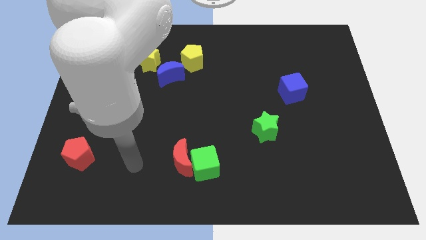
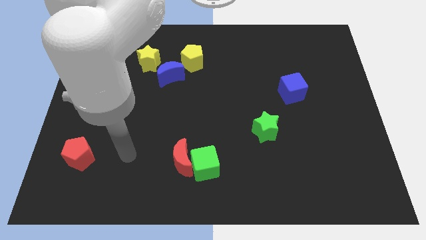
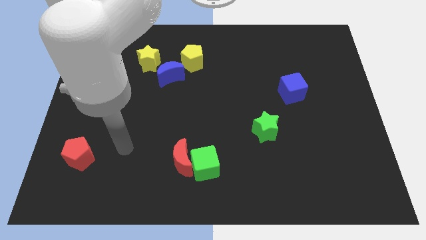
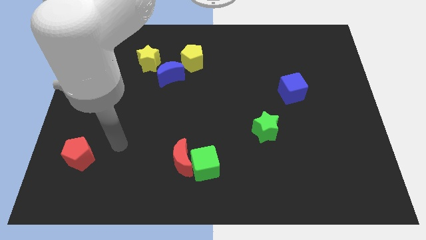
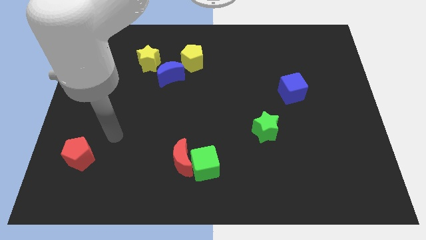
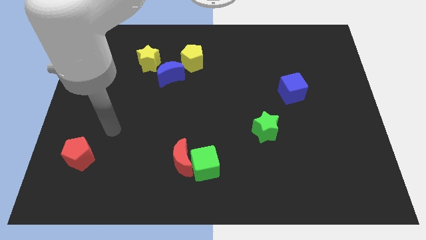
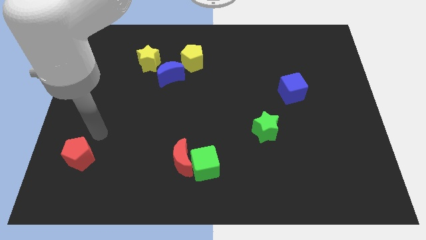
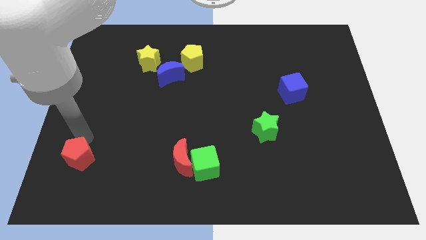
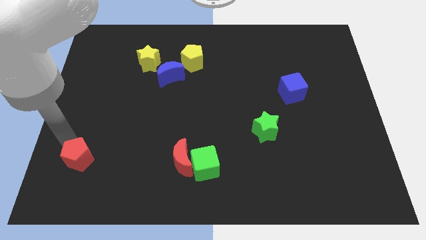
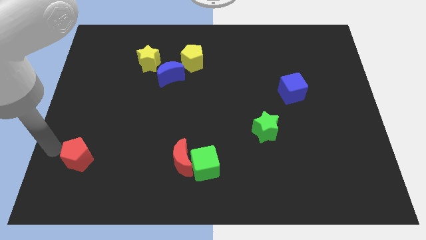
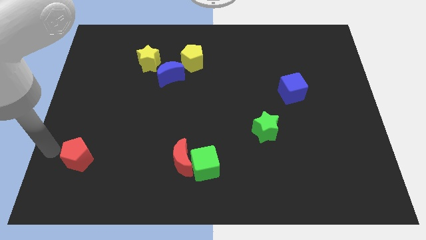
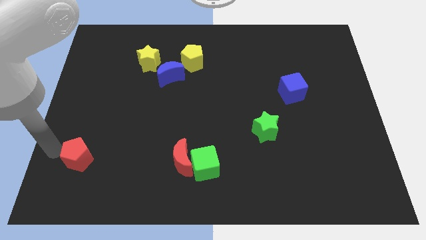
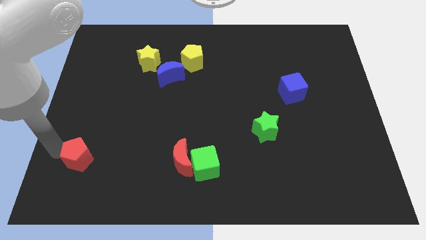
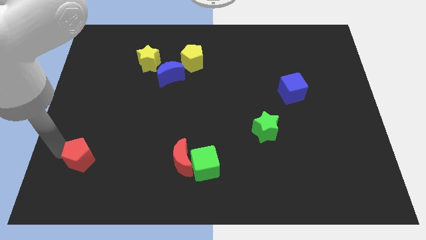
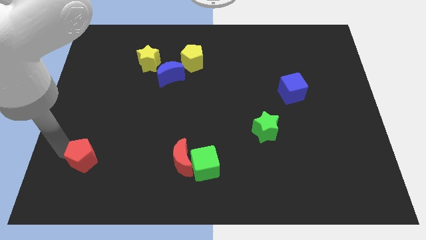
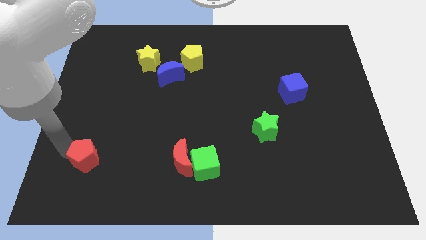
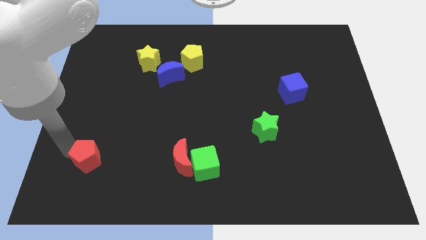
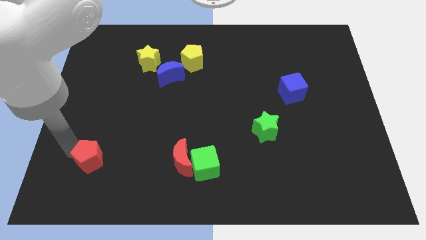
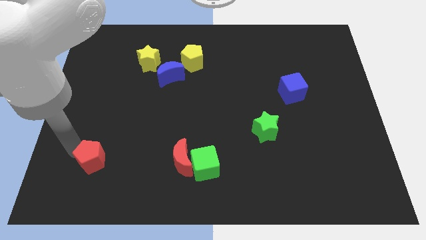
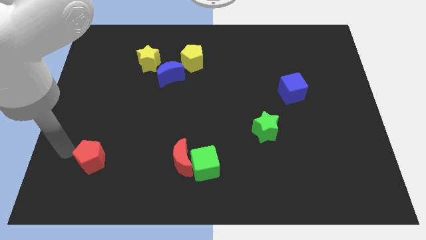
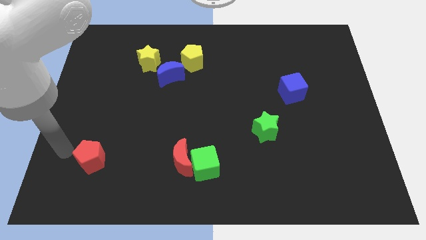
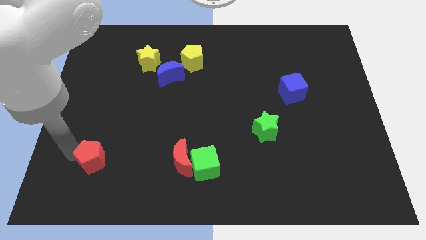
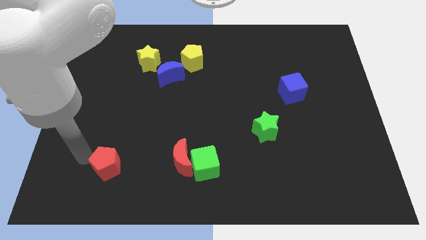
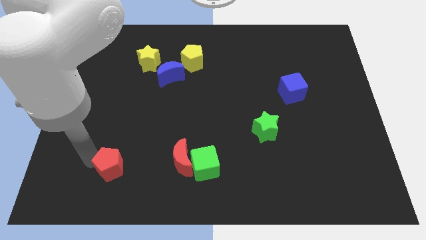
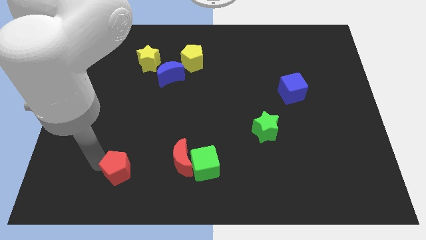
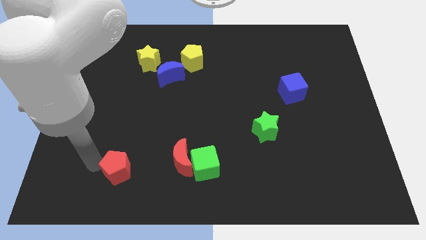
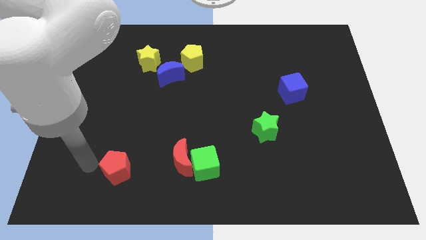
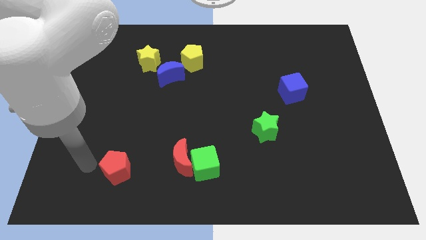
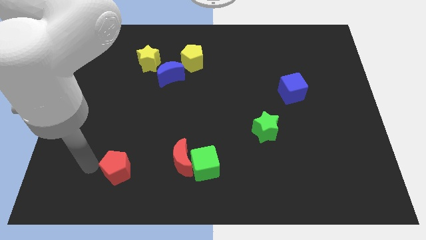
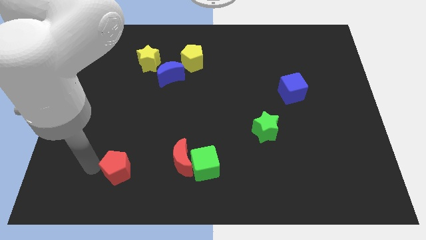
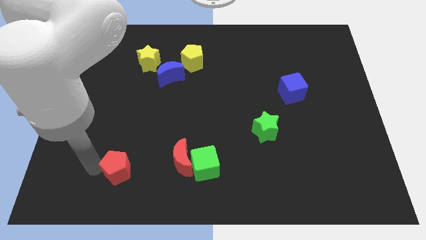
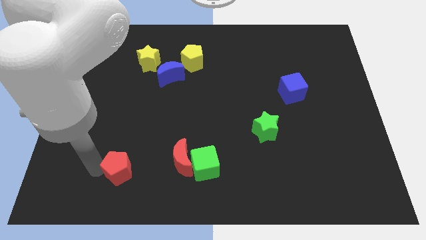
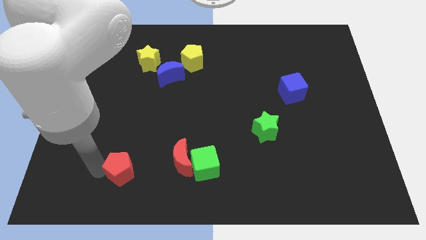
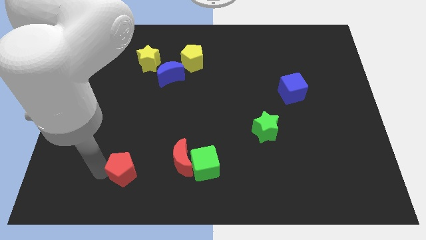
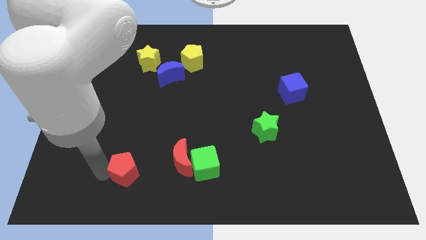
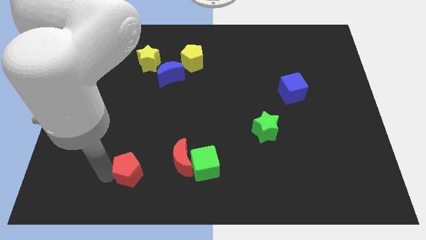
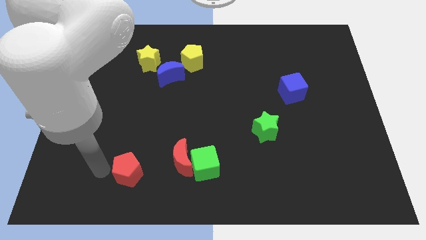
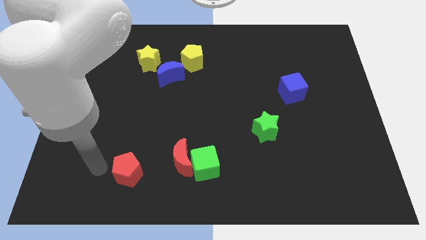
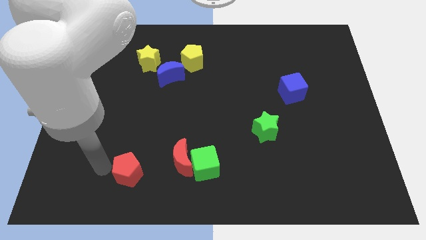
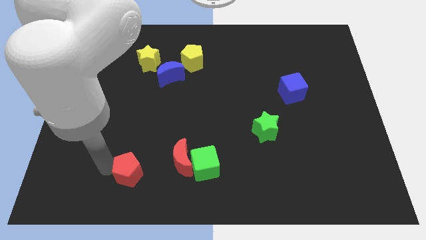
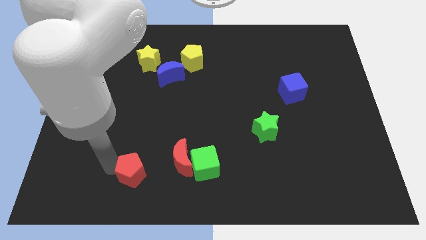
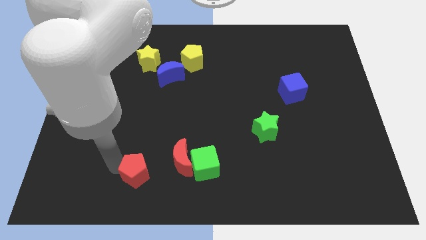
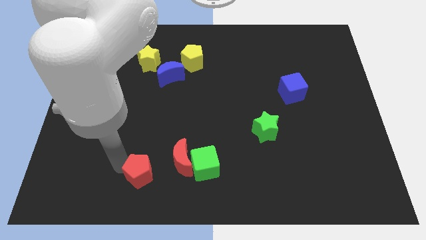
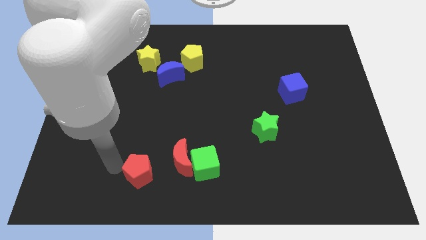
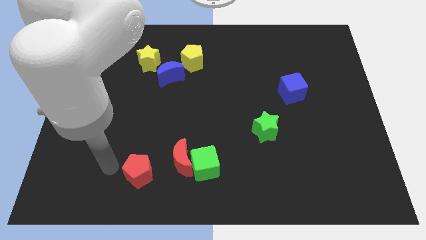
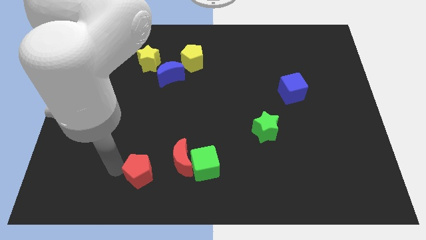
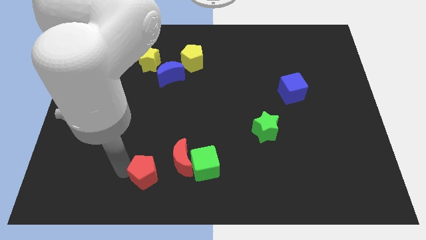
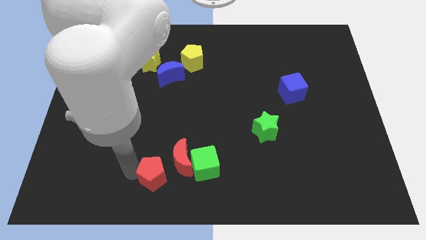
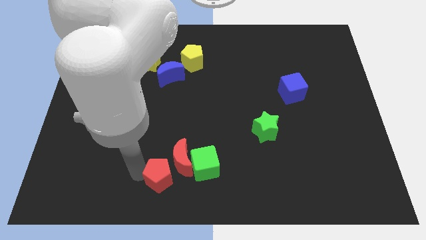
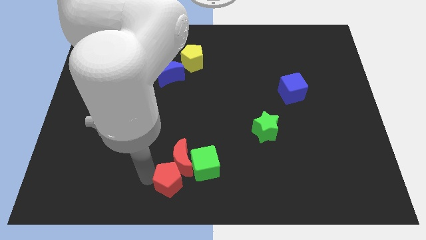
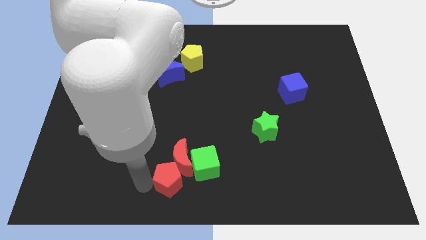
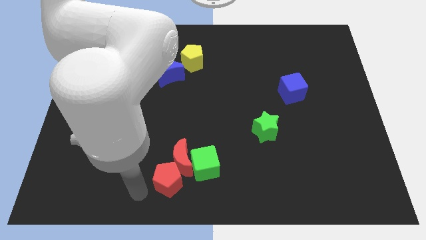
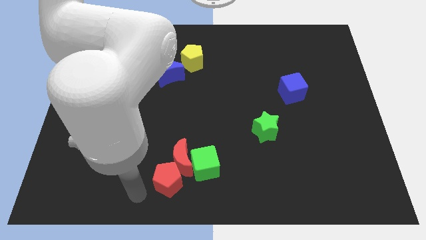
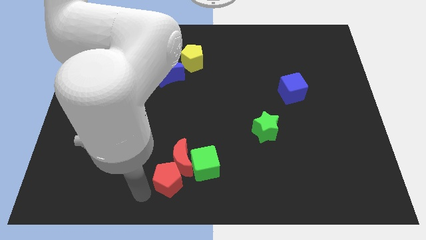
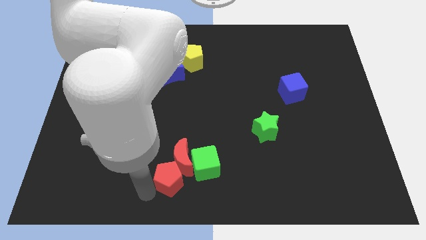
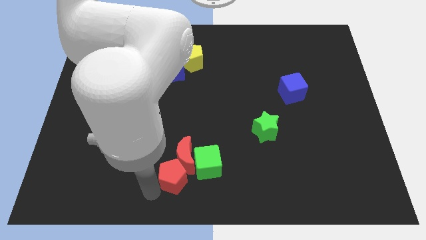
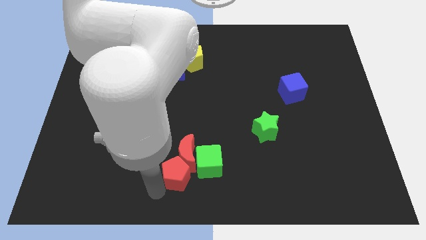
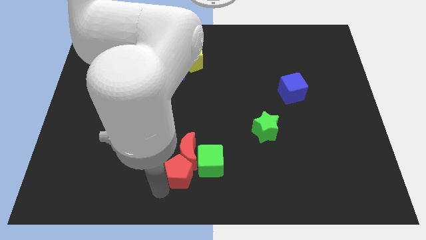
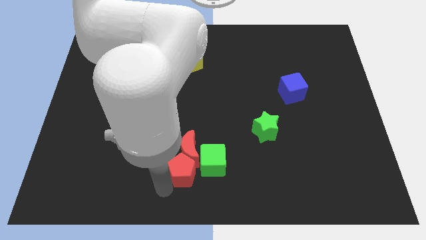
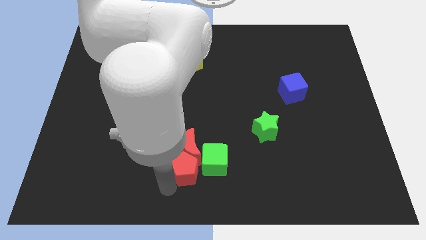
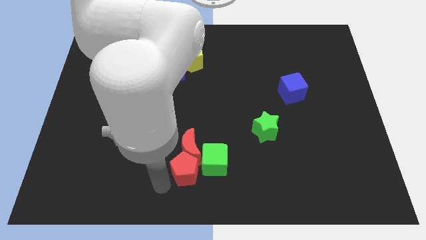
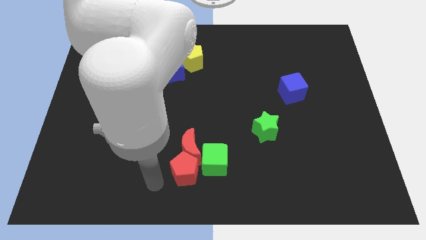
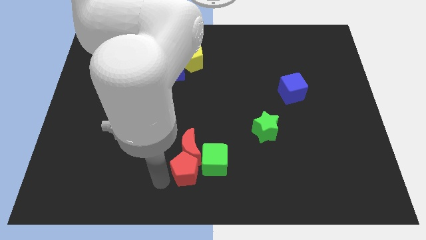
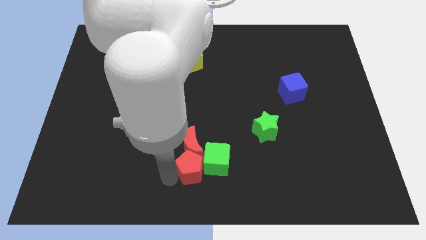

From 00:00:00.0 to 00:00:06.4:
slide the red pentagon next to the green cube

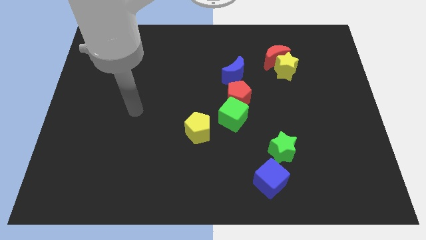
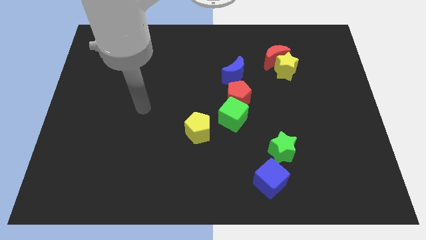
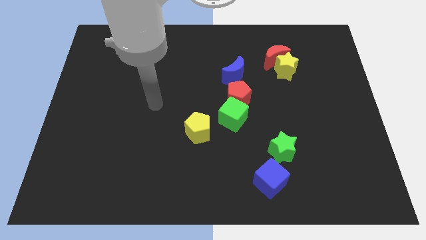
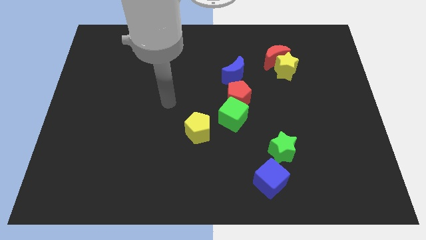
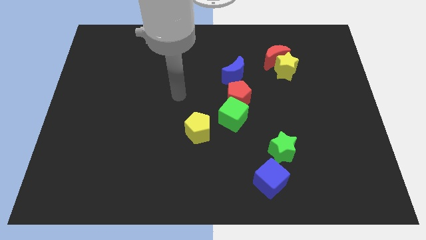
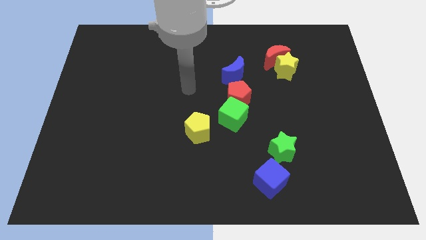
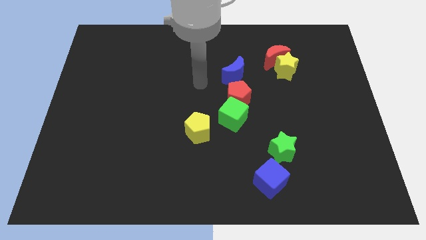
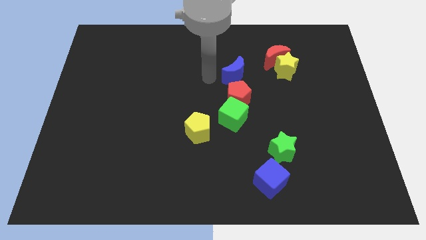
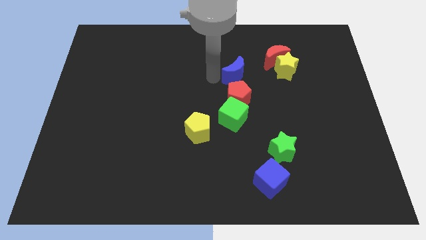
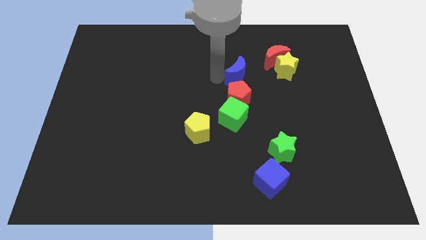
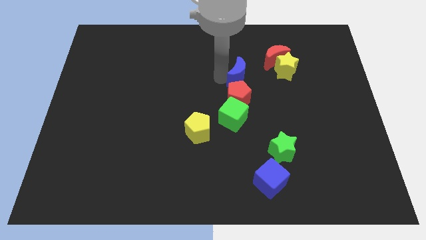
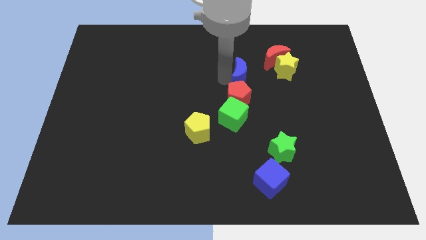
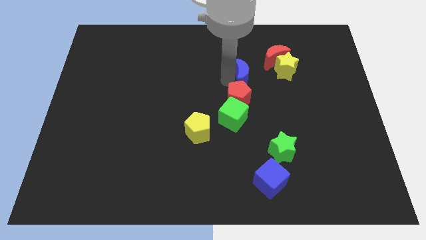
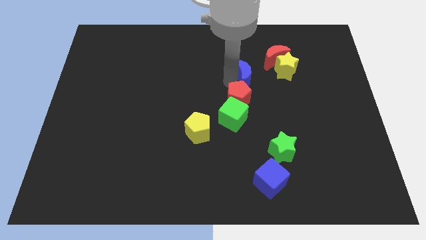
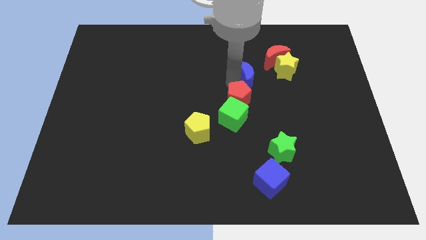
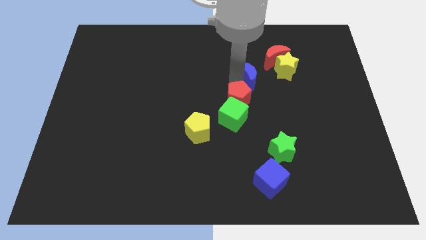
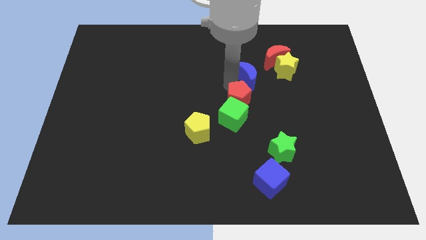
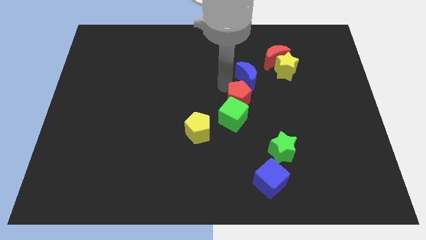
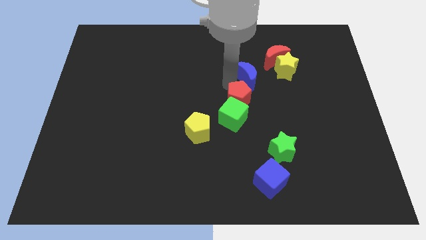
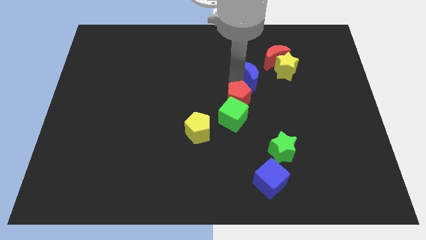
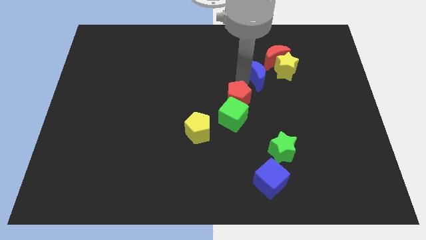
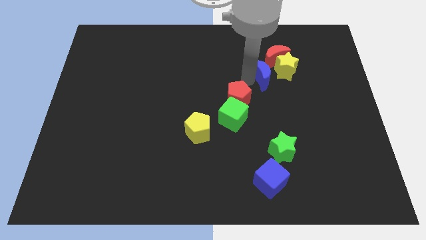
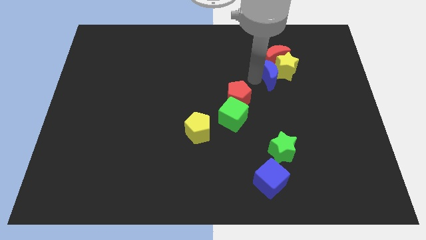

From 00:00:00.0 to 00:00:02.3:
push the blue moon towards the yellow star
